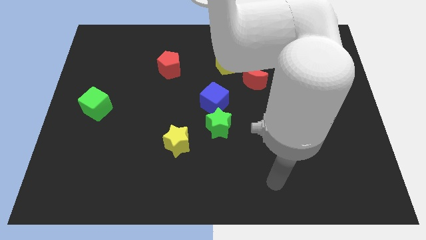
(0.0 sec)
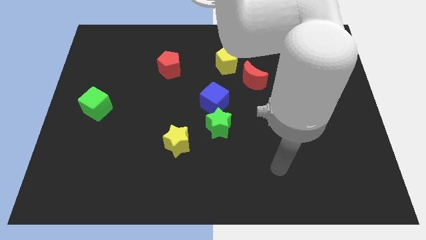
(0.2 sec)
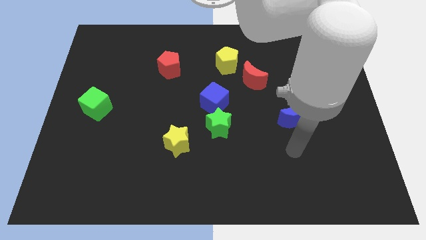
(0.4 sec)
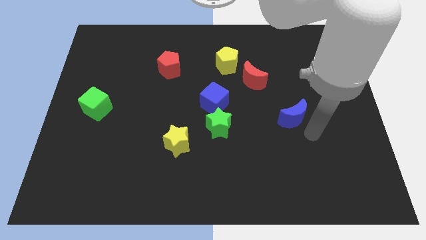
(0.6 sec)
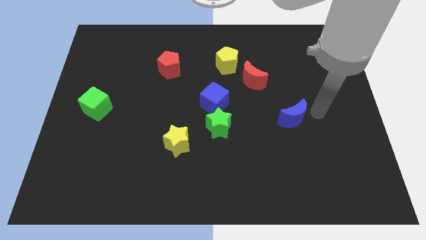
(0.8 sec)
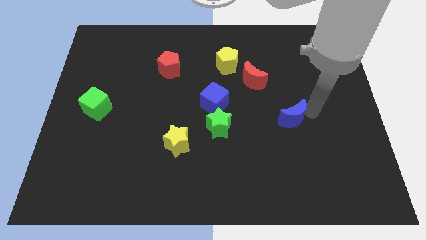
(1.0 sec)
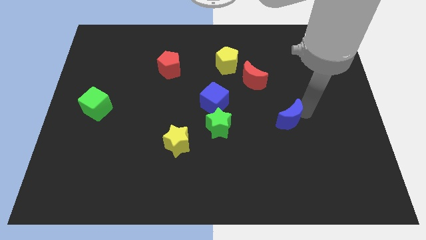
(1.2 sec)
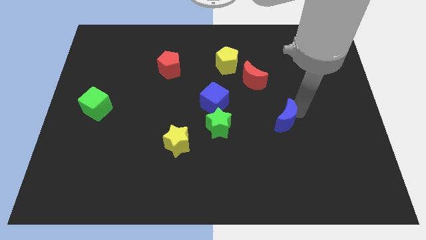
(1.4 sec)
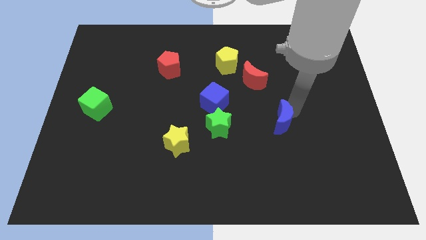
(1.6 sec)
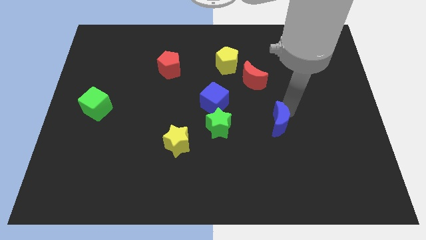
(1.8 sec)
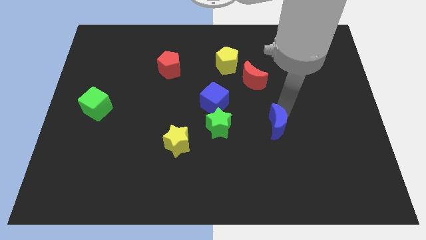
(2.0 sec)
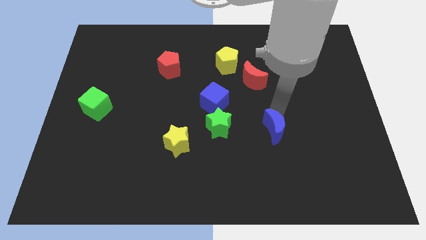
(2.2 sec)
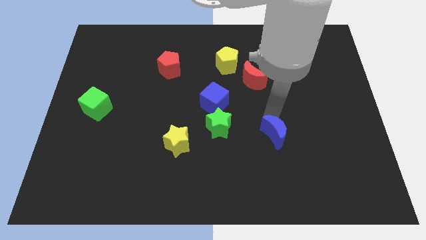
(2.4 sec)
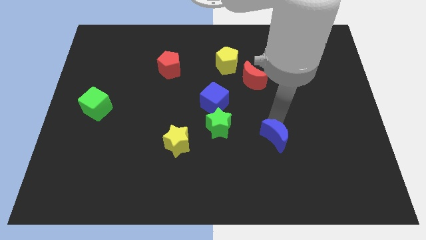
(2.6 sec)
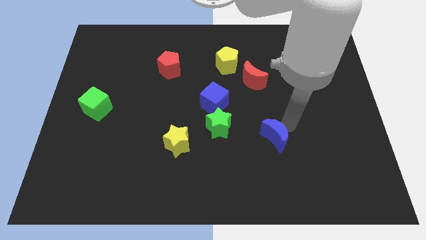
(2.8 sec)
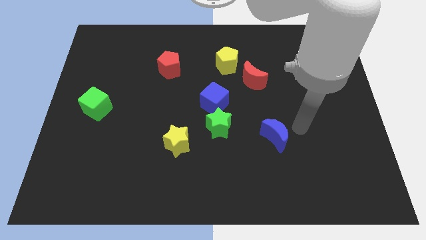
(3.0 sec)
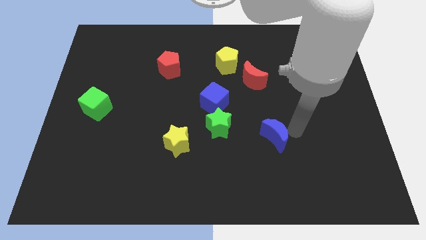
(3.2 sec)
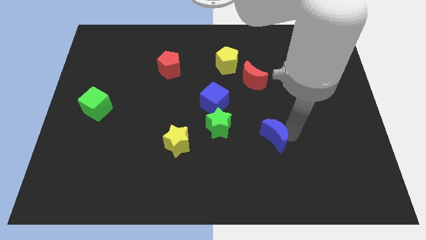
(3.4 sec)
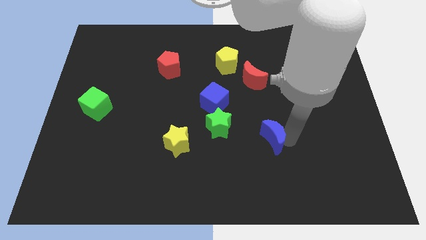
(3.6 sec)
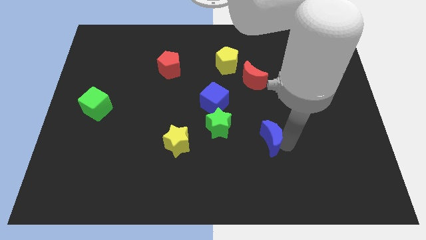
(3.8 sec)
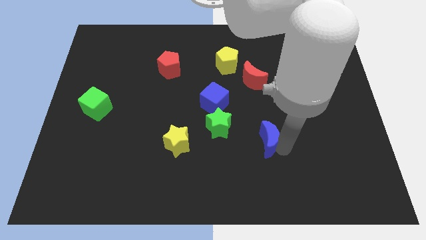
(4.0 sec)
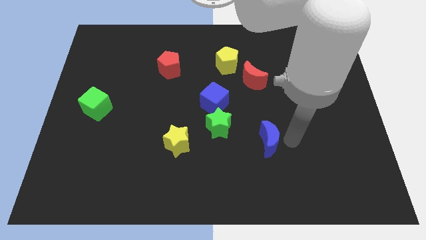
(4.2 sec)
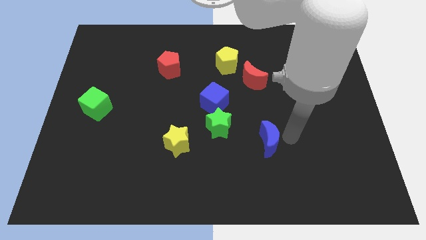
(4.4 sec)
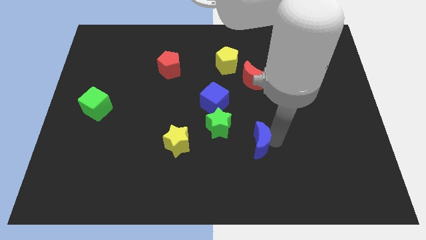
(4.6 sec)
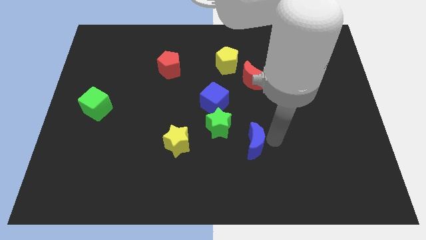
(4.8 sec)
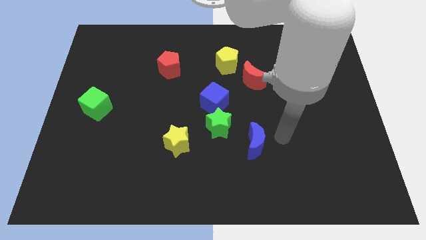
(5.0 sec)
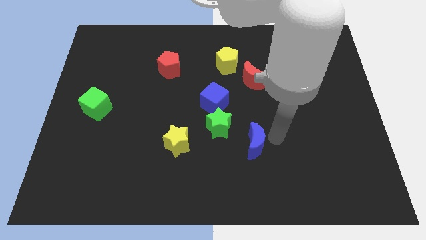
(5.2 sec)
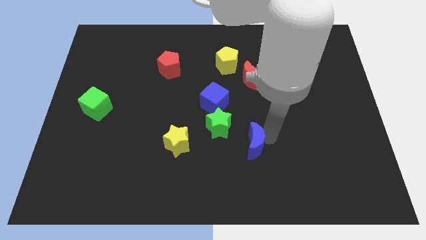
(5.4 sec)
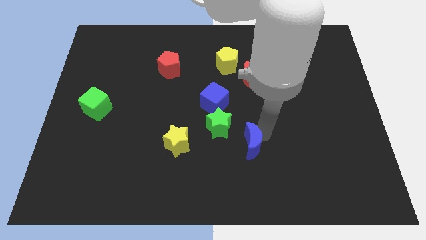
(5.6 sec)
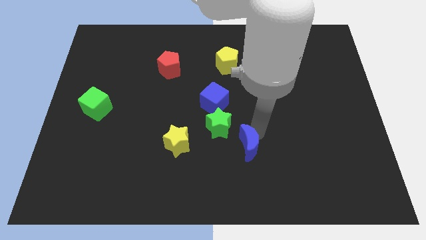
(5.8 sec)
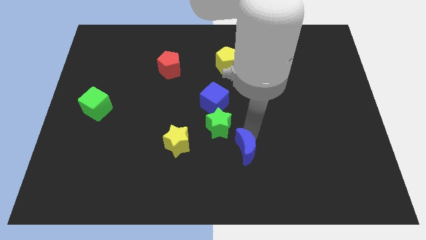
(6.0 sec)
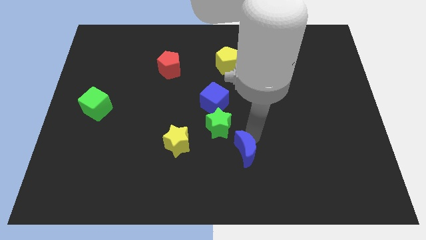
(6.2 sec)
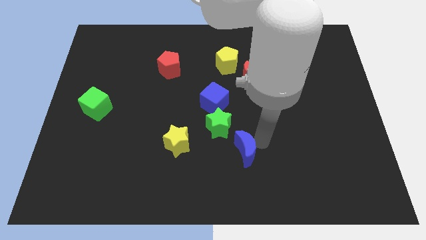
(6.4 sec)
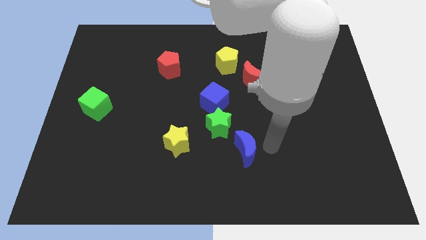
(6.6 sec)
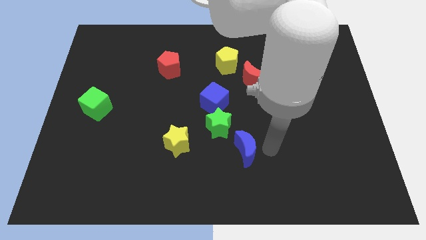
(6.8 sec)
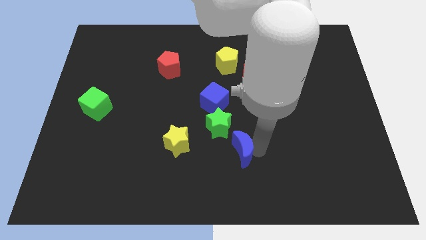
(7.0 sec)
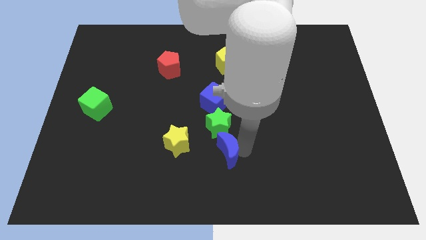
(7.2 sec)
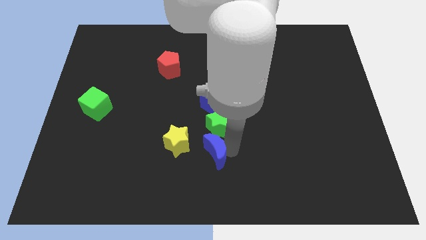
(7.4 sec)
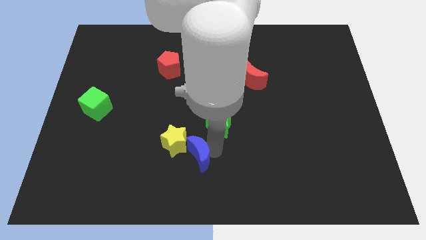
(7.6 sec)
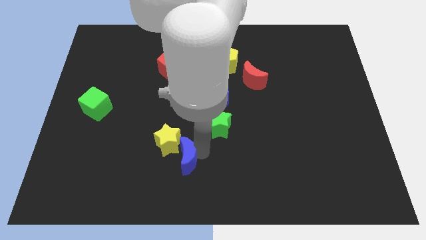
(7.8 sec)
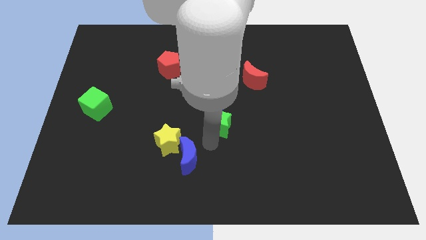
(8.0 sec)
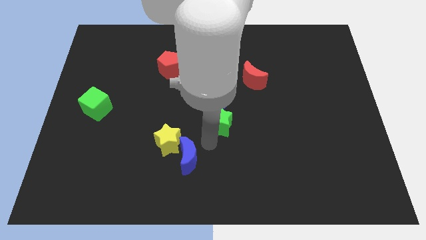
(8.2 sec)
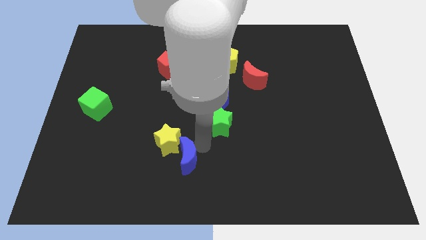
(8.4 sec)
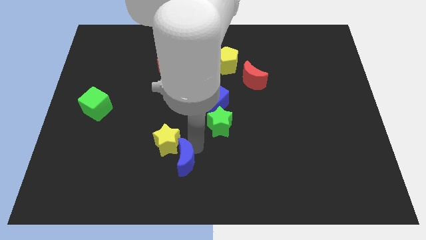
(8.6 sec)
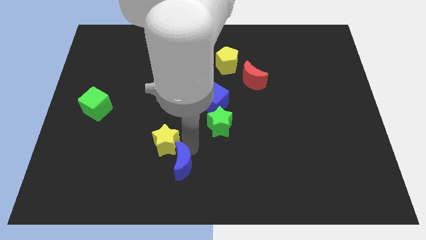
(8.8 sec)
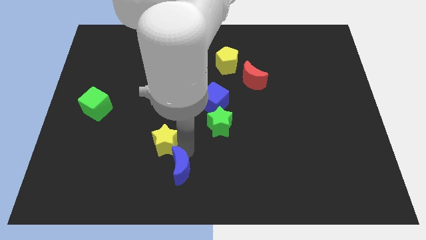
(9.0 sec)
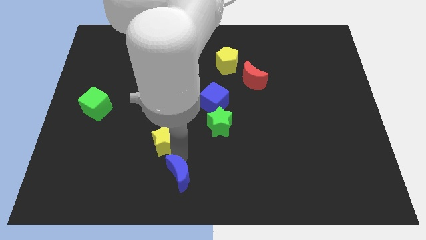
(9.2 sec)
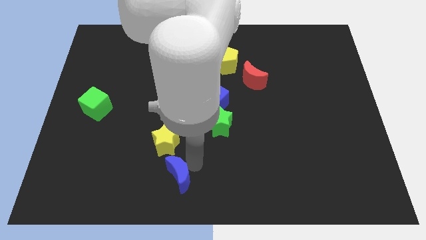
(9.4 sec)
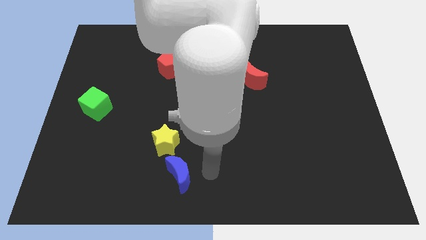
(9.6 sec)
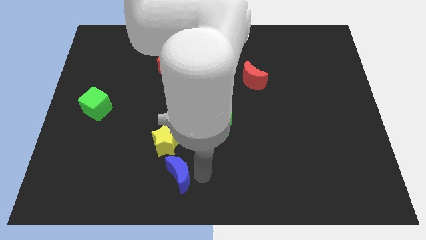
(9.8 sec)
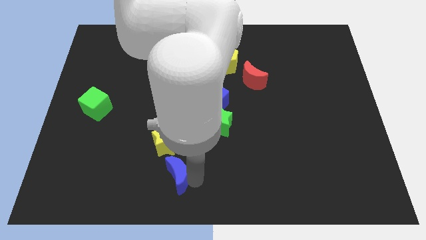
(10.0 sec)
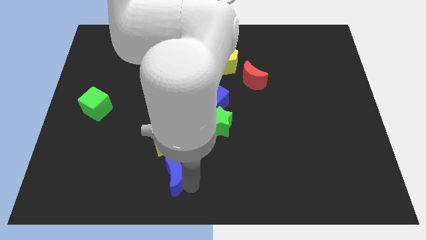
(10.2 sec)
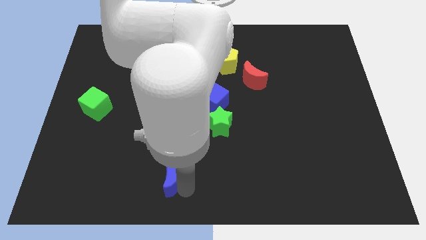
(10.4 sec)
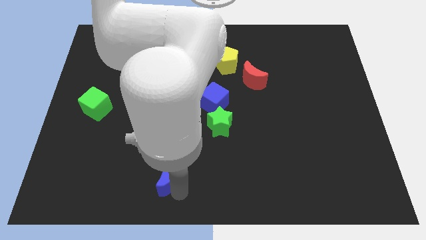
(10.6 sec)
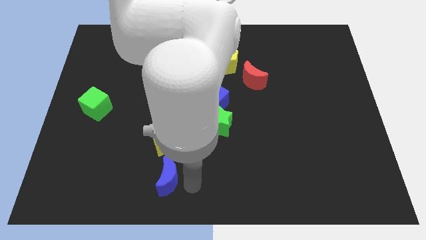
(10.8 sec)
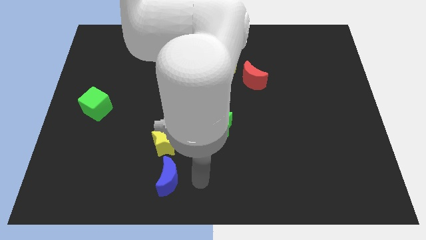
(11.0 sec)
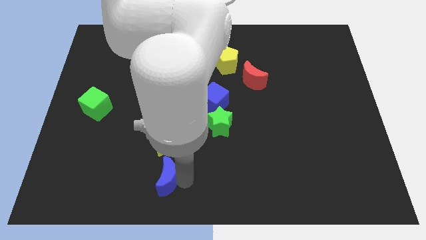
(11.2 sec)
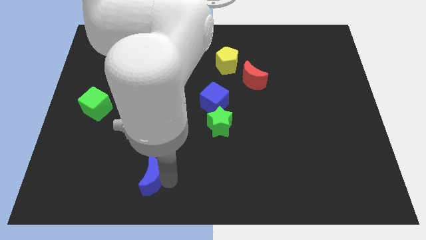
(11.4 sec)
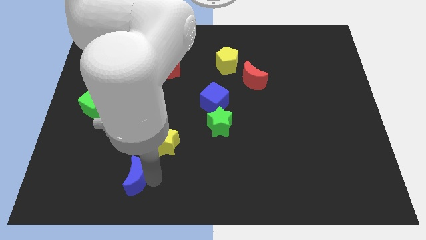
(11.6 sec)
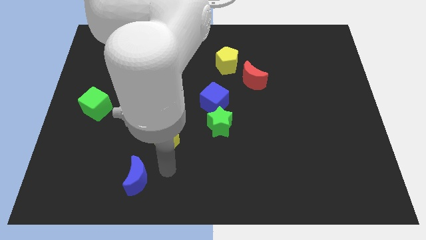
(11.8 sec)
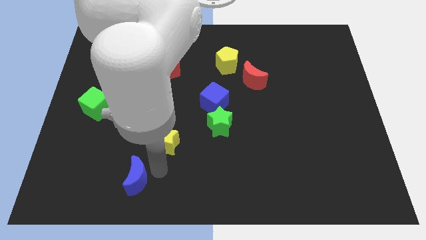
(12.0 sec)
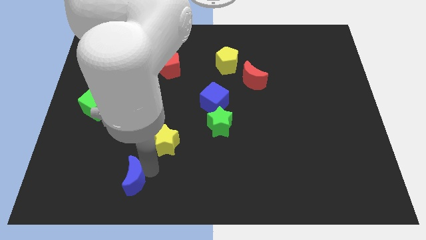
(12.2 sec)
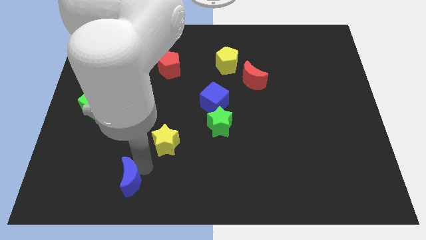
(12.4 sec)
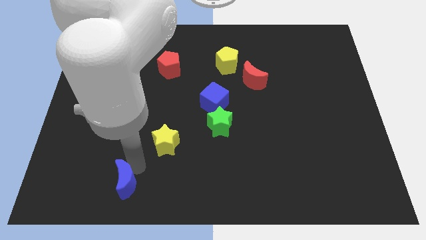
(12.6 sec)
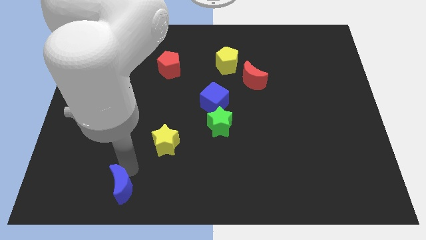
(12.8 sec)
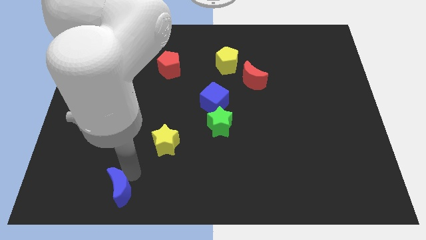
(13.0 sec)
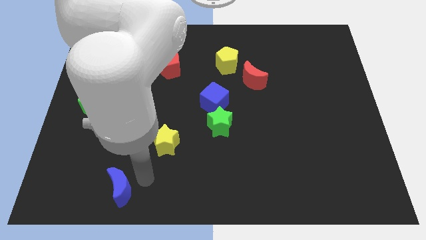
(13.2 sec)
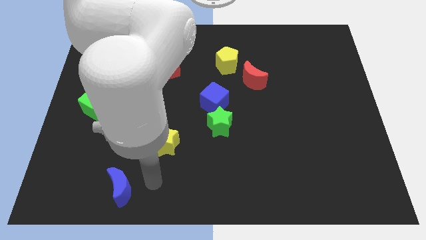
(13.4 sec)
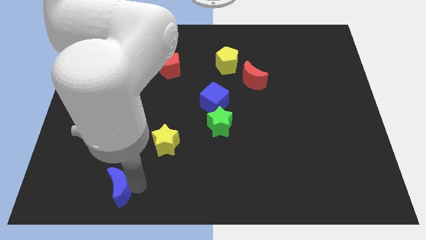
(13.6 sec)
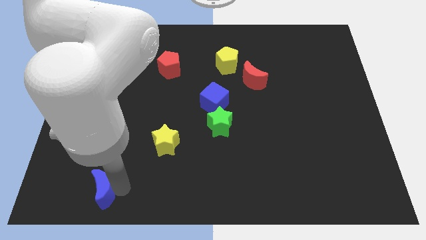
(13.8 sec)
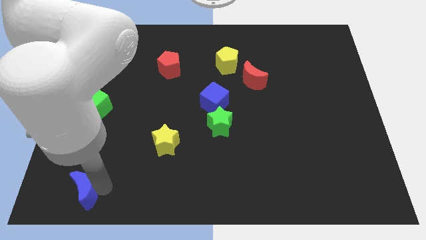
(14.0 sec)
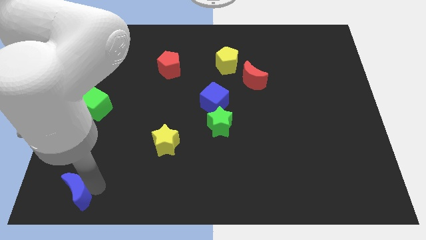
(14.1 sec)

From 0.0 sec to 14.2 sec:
move the blue moon to the bottom left of the board
